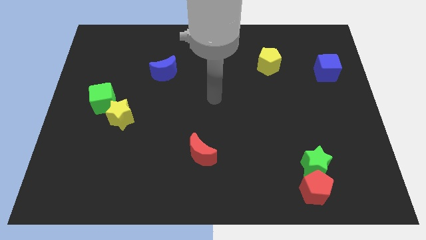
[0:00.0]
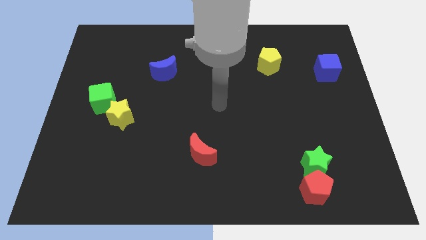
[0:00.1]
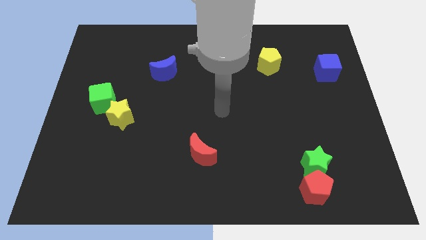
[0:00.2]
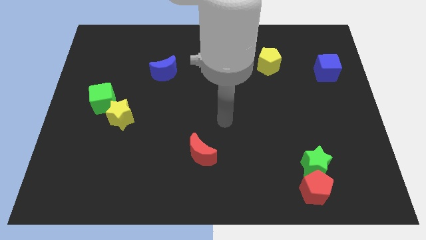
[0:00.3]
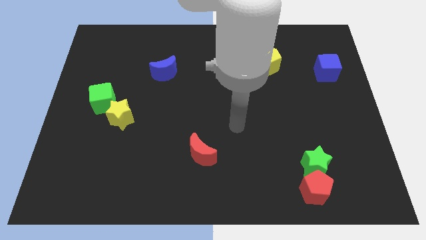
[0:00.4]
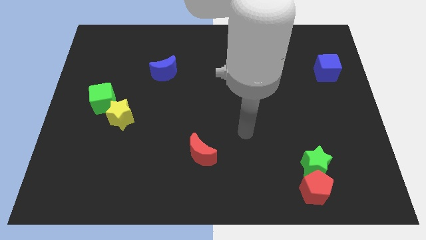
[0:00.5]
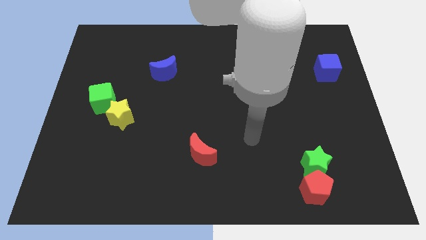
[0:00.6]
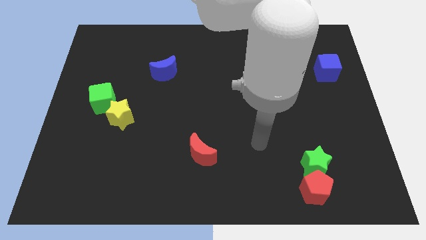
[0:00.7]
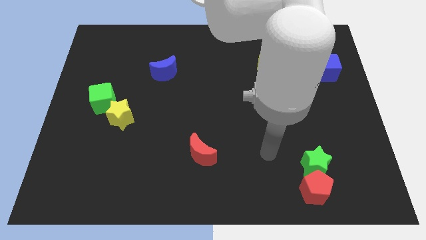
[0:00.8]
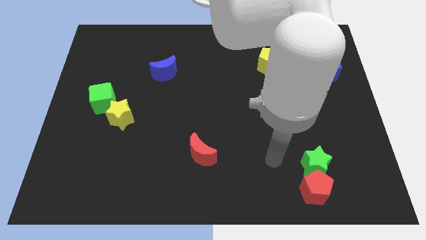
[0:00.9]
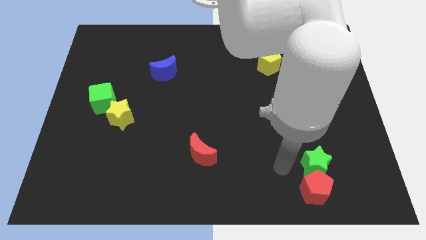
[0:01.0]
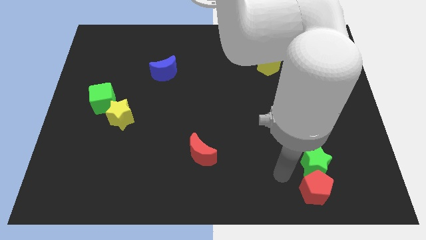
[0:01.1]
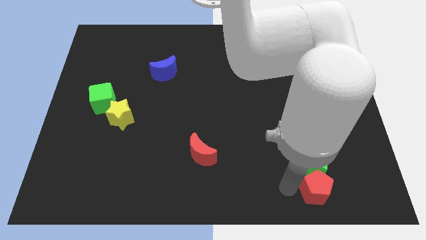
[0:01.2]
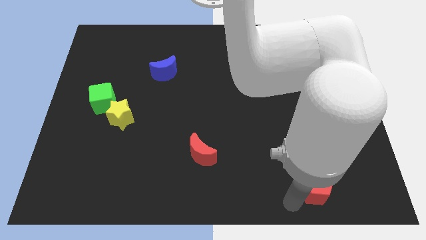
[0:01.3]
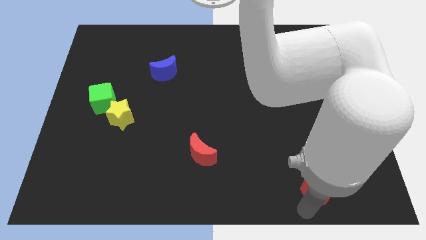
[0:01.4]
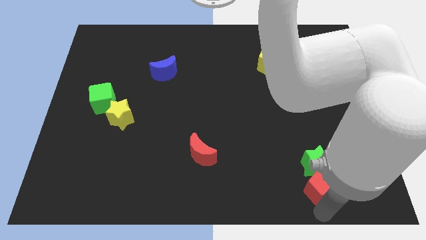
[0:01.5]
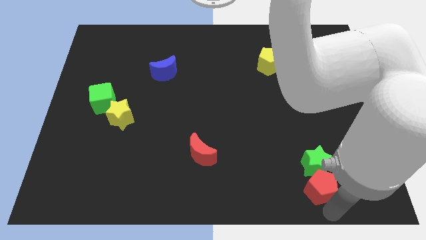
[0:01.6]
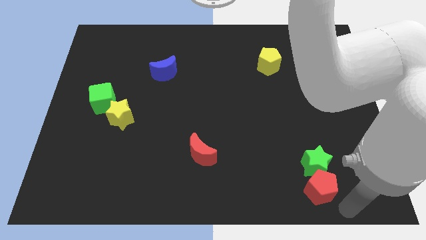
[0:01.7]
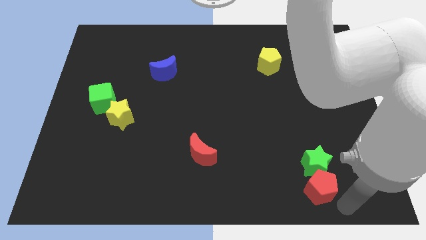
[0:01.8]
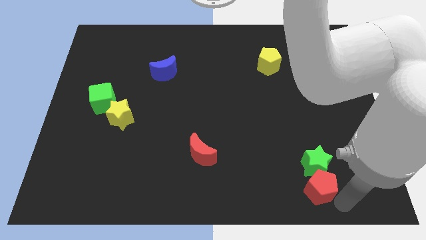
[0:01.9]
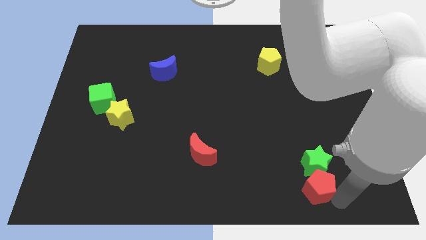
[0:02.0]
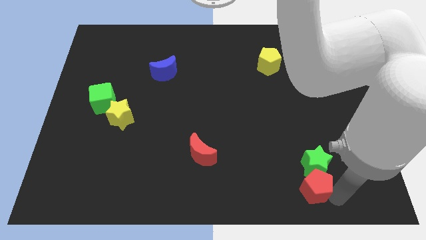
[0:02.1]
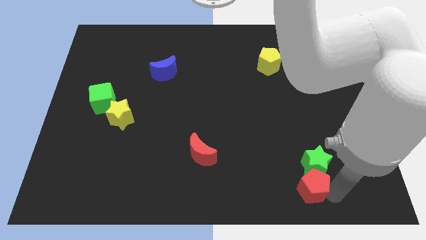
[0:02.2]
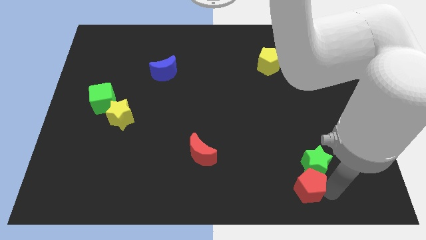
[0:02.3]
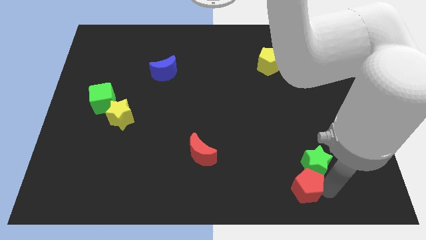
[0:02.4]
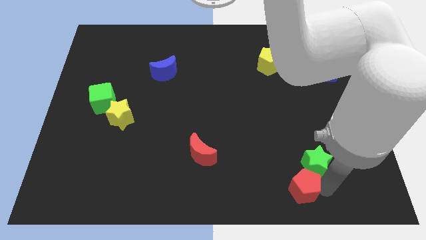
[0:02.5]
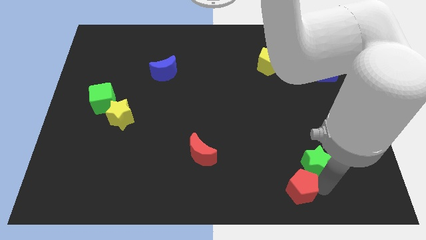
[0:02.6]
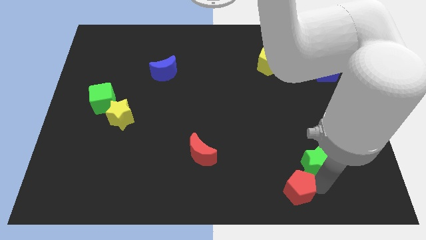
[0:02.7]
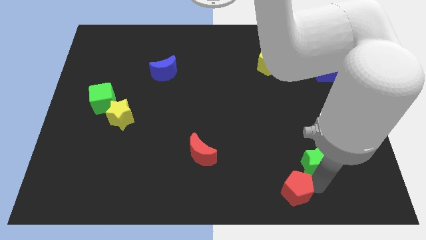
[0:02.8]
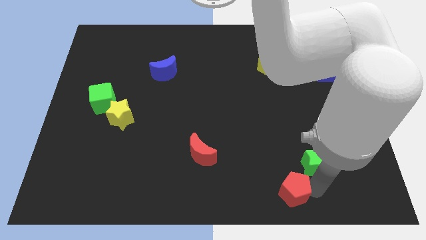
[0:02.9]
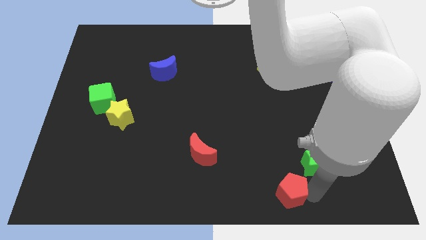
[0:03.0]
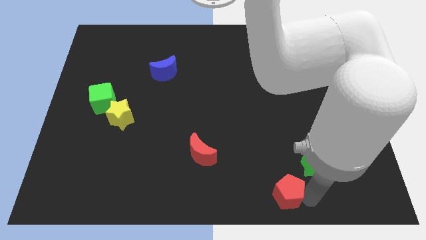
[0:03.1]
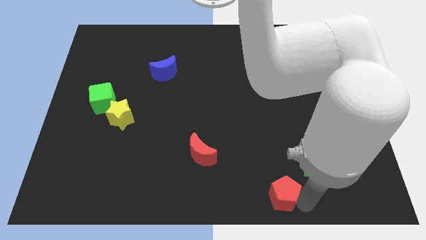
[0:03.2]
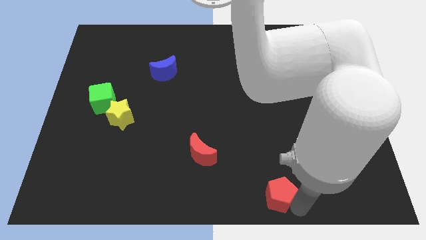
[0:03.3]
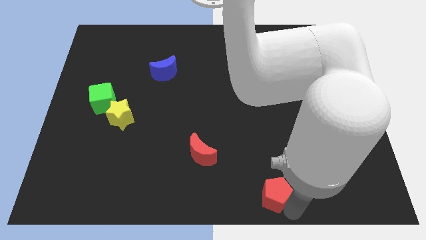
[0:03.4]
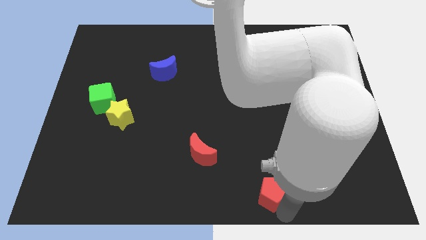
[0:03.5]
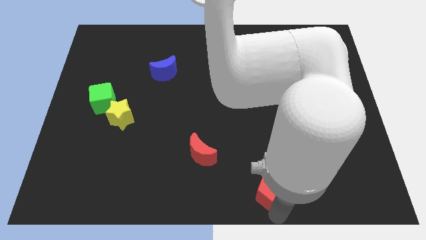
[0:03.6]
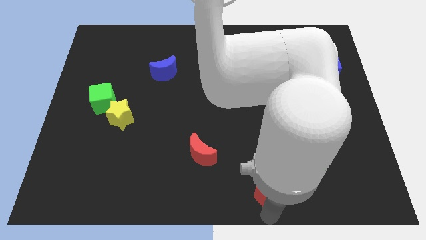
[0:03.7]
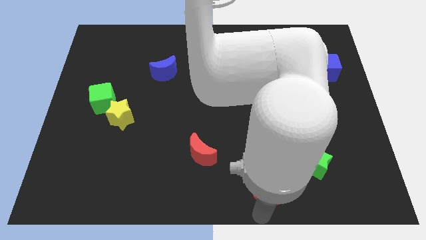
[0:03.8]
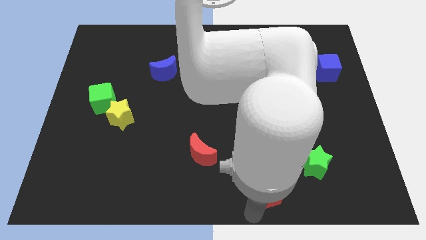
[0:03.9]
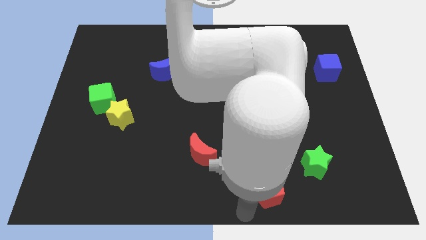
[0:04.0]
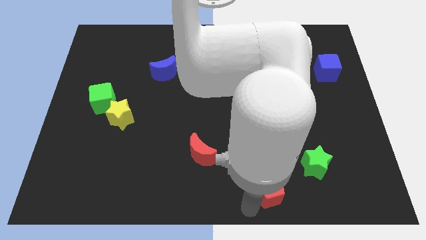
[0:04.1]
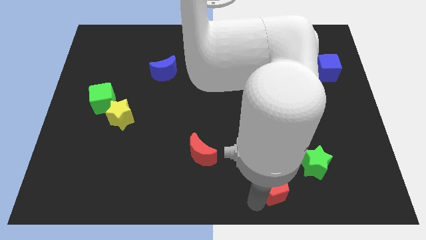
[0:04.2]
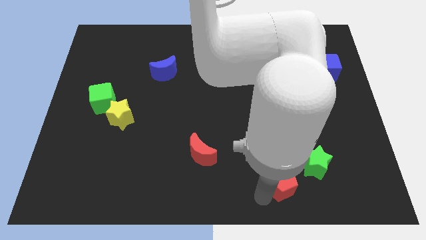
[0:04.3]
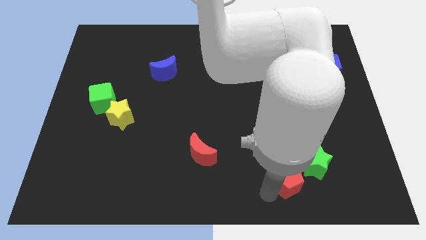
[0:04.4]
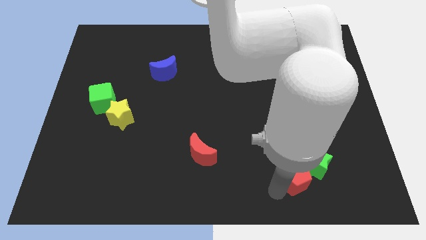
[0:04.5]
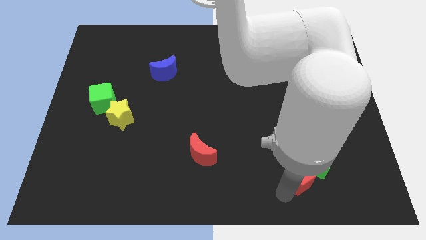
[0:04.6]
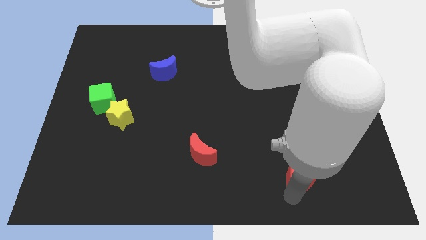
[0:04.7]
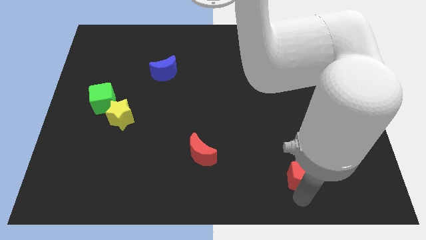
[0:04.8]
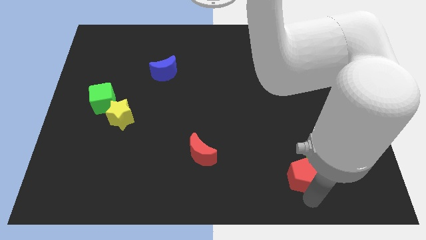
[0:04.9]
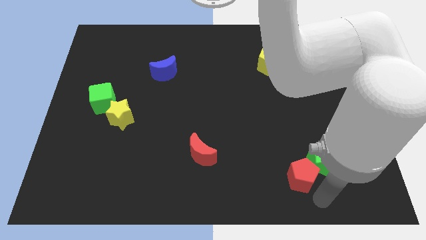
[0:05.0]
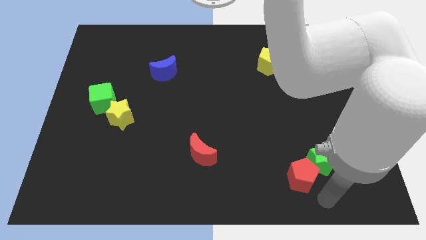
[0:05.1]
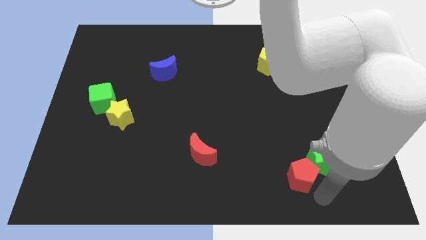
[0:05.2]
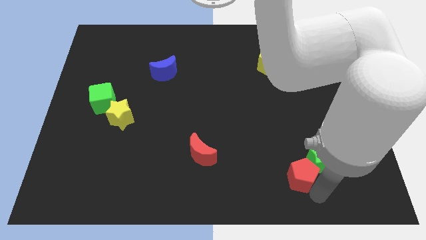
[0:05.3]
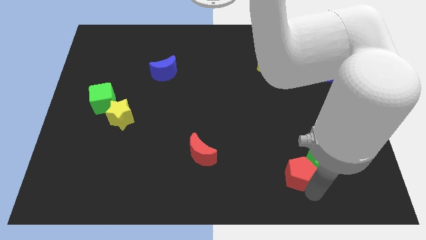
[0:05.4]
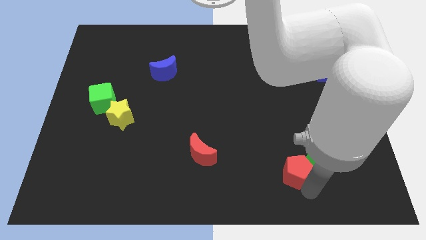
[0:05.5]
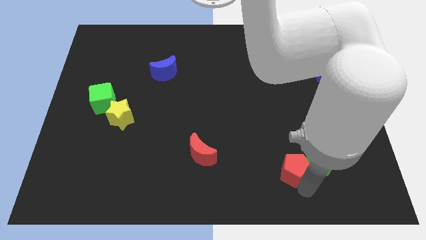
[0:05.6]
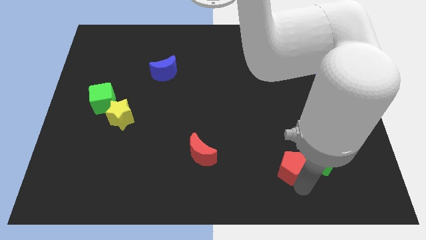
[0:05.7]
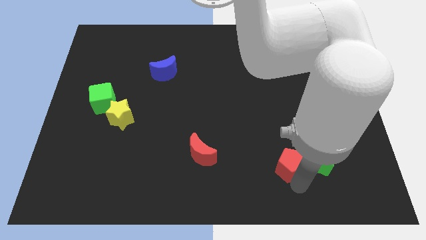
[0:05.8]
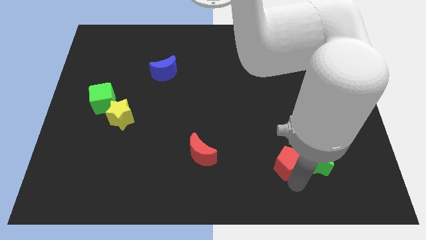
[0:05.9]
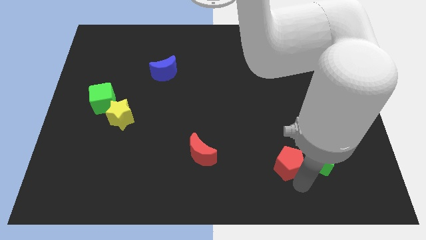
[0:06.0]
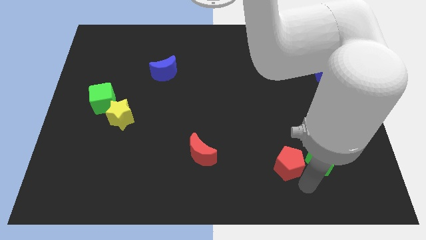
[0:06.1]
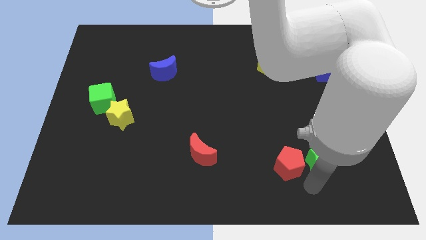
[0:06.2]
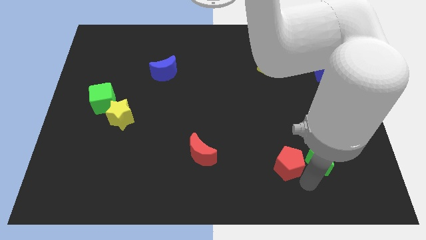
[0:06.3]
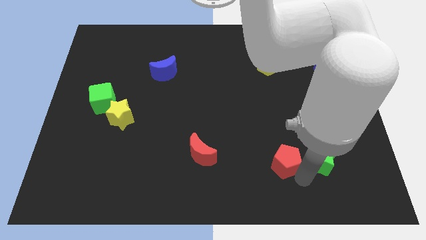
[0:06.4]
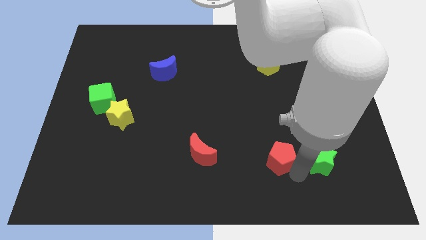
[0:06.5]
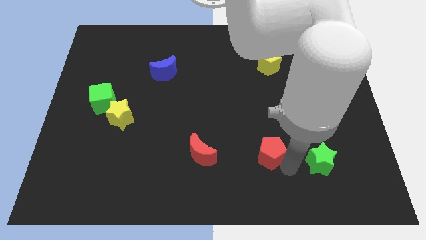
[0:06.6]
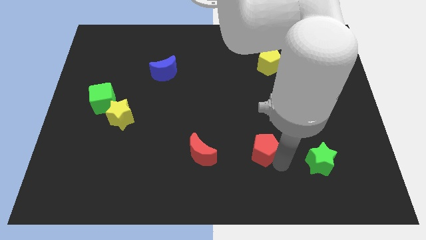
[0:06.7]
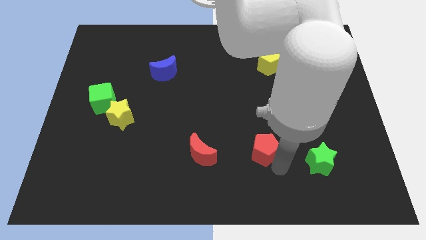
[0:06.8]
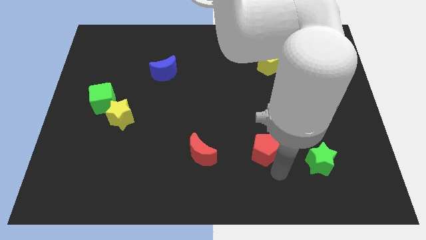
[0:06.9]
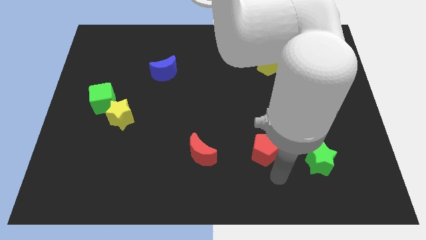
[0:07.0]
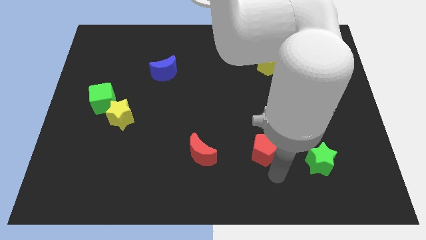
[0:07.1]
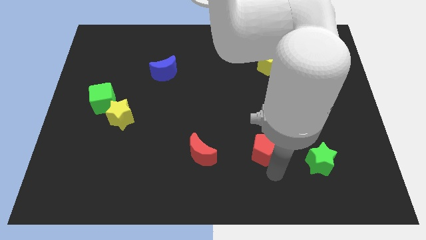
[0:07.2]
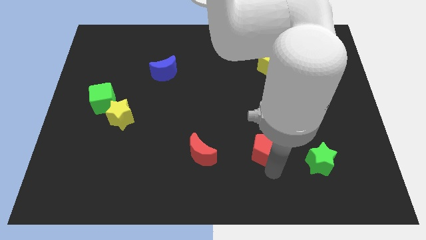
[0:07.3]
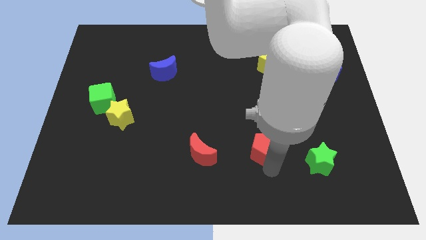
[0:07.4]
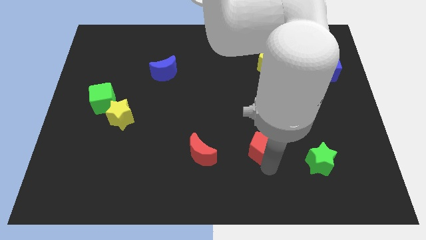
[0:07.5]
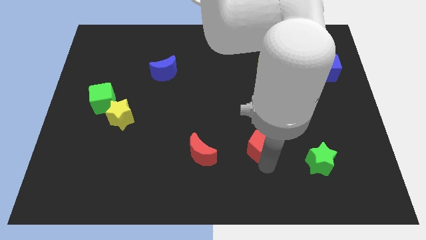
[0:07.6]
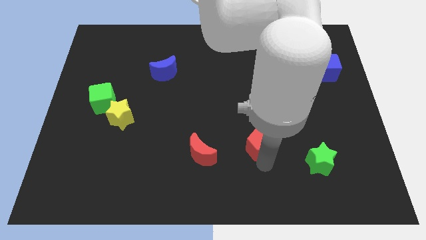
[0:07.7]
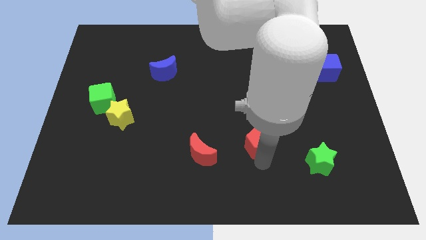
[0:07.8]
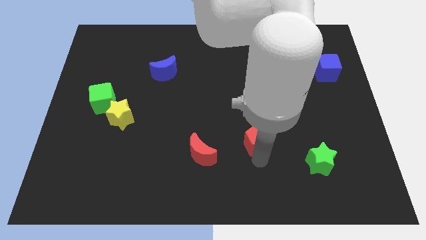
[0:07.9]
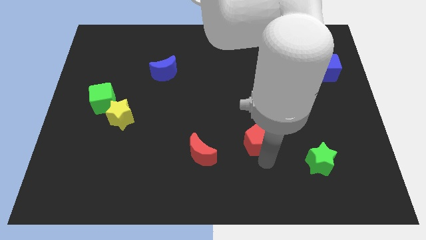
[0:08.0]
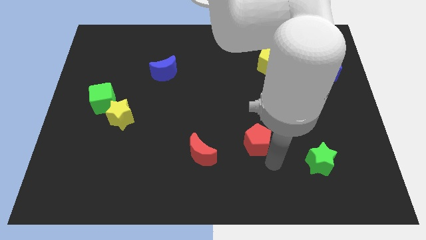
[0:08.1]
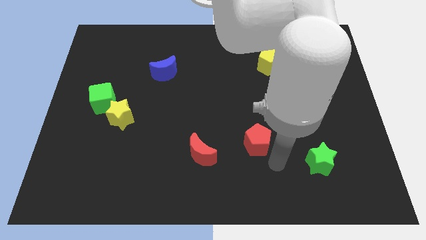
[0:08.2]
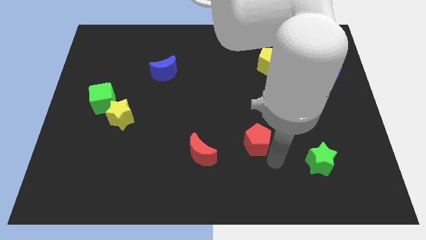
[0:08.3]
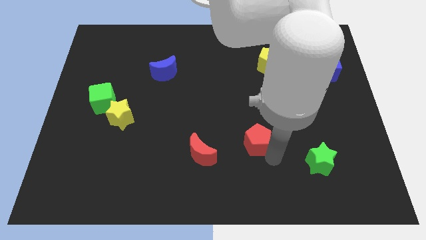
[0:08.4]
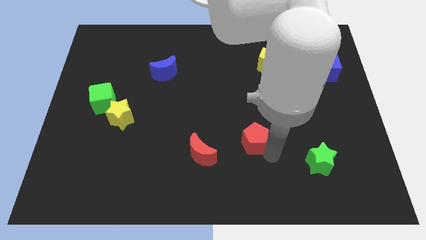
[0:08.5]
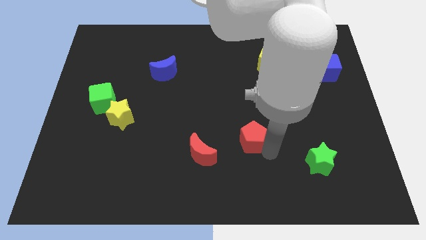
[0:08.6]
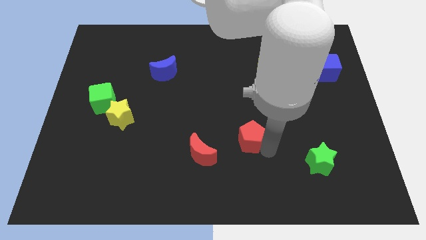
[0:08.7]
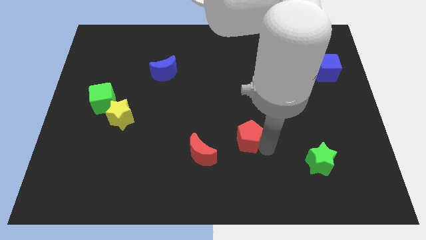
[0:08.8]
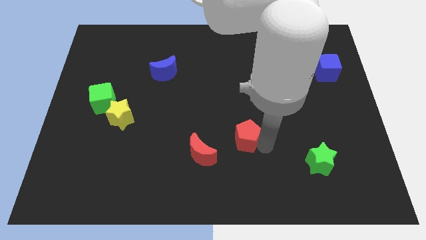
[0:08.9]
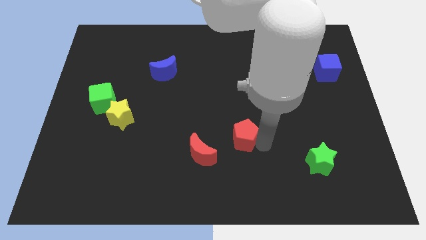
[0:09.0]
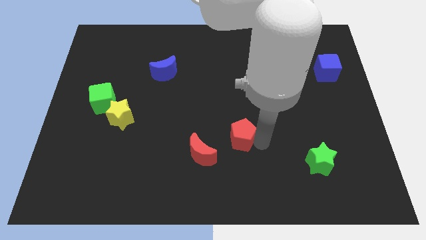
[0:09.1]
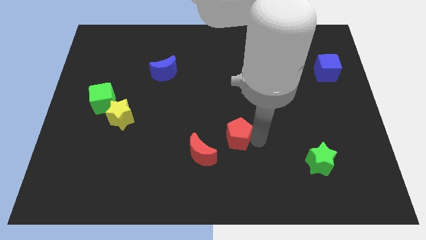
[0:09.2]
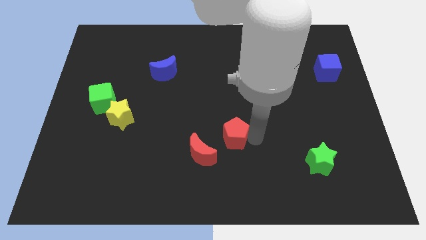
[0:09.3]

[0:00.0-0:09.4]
move the red pentagon up and left
